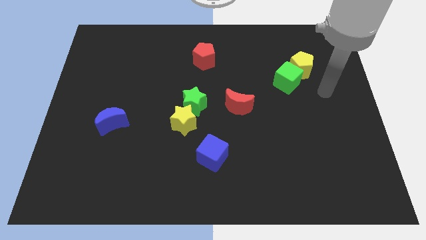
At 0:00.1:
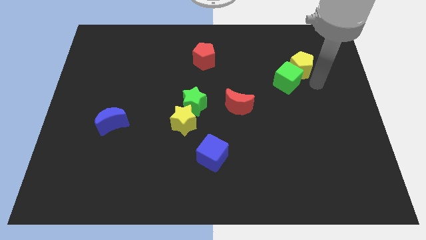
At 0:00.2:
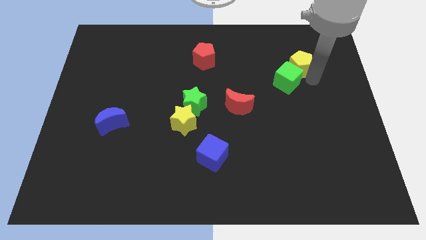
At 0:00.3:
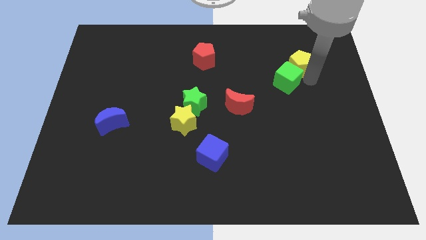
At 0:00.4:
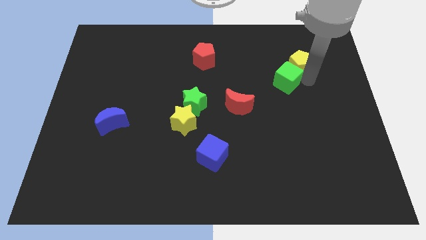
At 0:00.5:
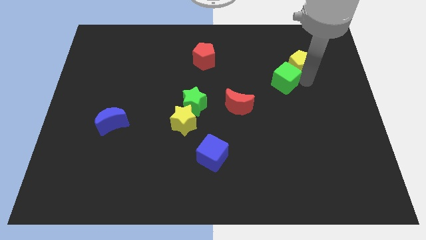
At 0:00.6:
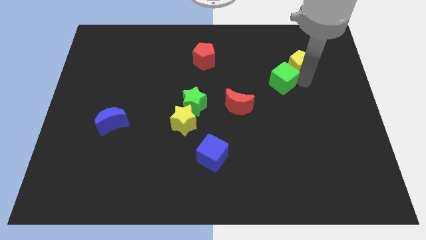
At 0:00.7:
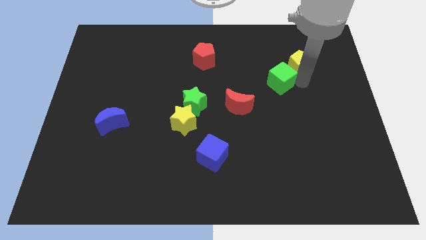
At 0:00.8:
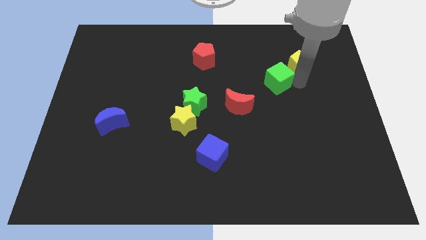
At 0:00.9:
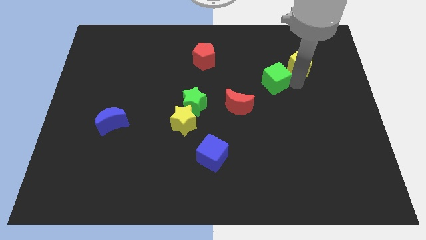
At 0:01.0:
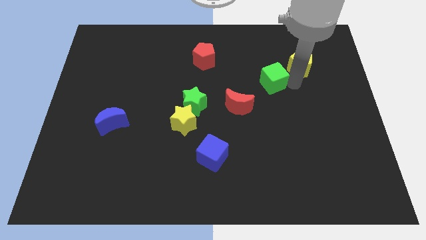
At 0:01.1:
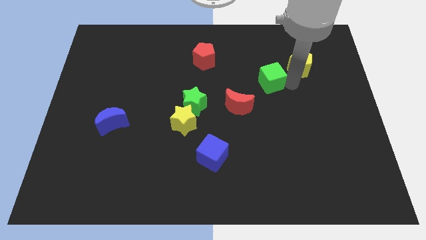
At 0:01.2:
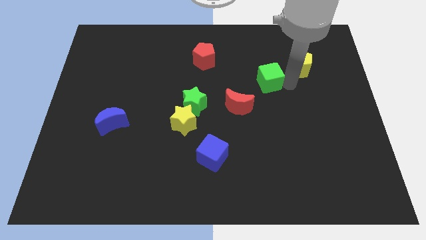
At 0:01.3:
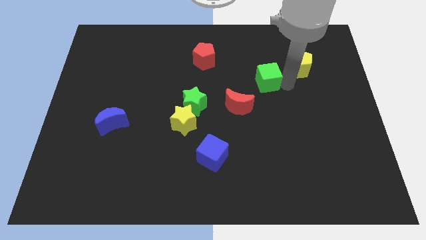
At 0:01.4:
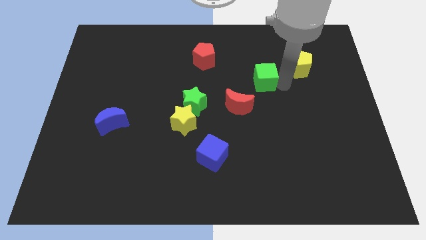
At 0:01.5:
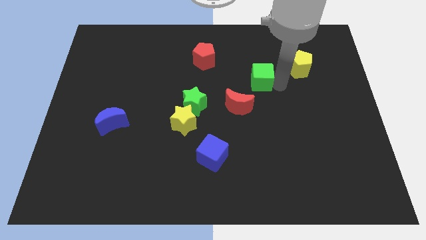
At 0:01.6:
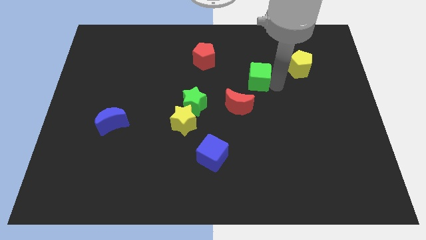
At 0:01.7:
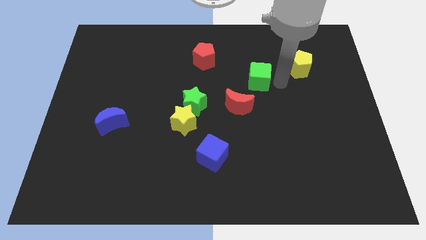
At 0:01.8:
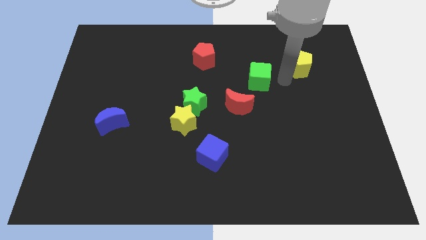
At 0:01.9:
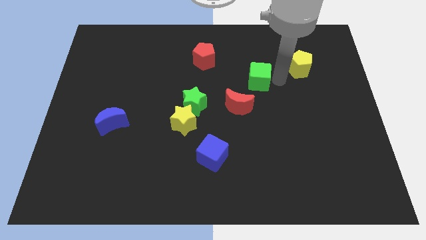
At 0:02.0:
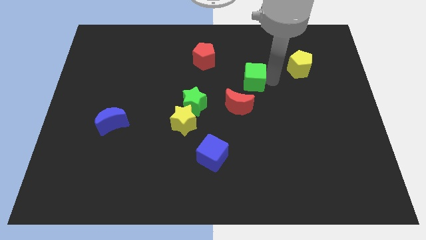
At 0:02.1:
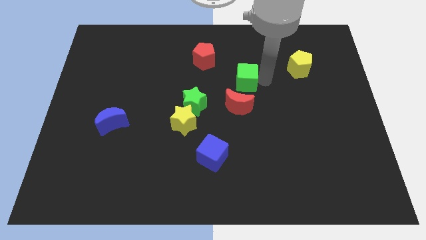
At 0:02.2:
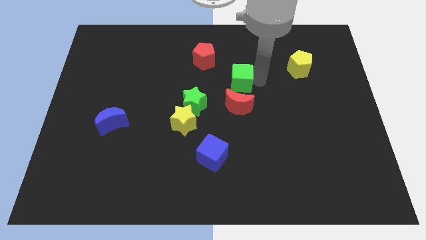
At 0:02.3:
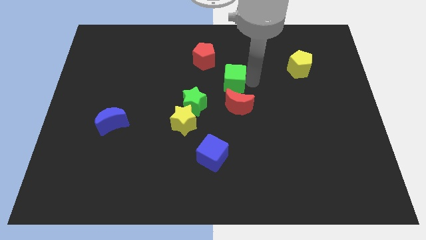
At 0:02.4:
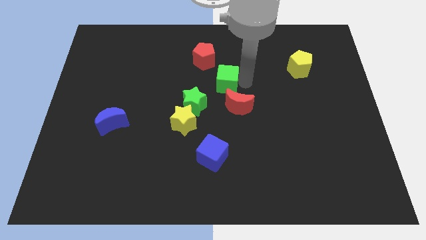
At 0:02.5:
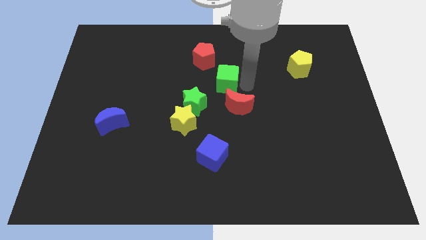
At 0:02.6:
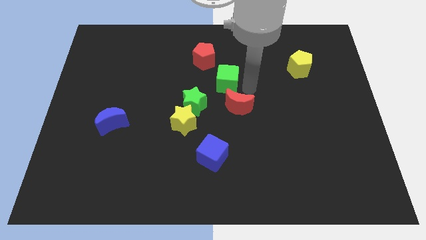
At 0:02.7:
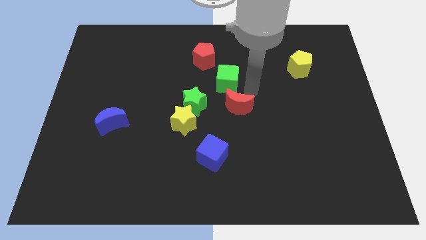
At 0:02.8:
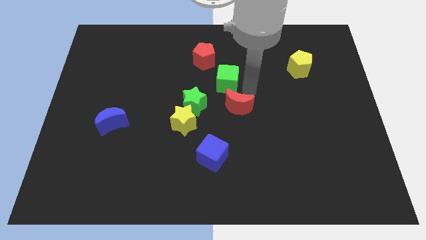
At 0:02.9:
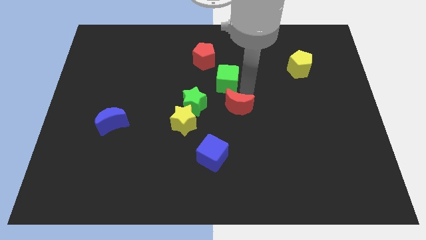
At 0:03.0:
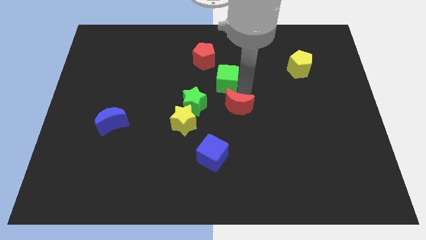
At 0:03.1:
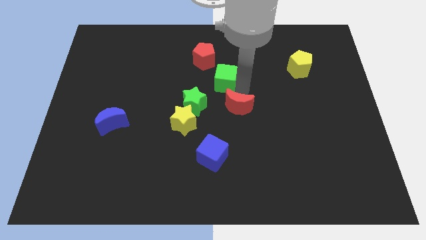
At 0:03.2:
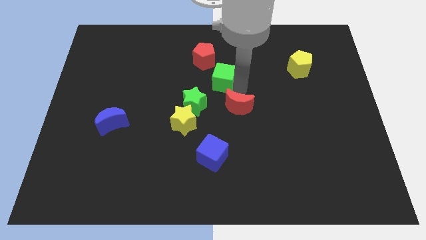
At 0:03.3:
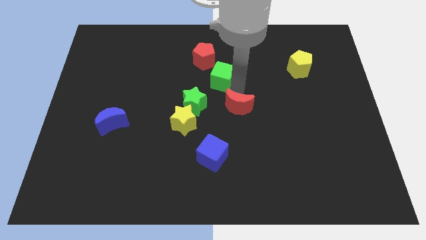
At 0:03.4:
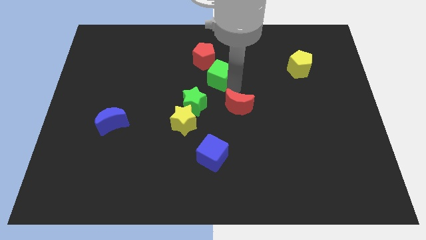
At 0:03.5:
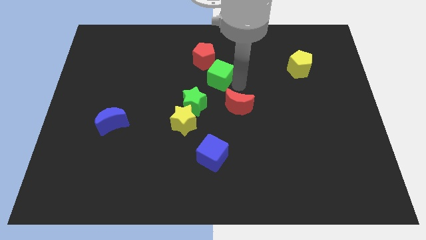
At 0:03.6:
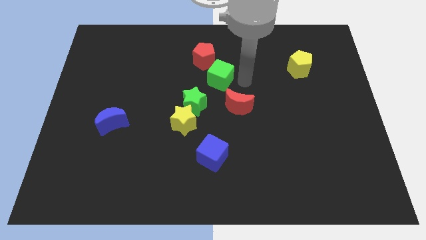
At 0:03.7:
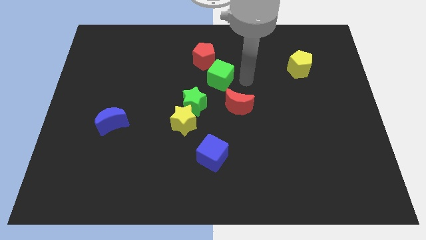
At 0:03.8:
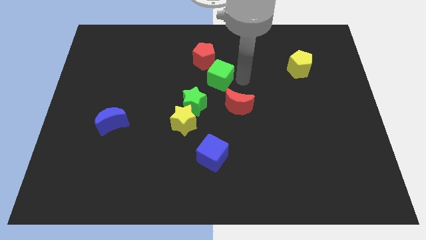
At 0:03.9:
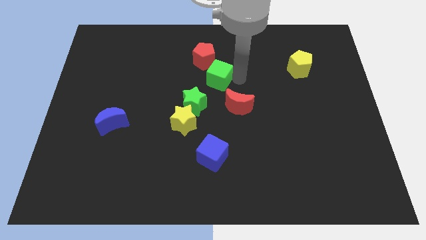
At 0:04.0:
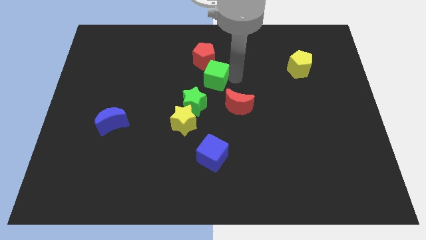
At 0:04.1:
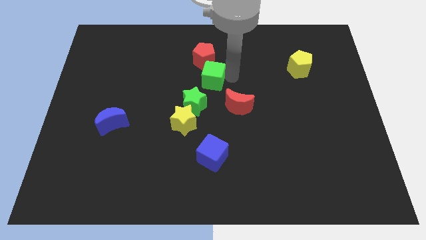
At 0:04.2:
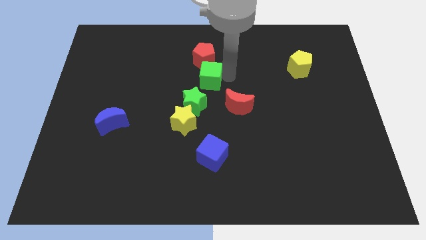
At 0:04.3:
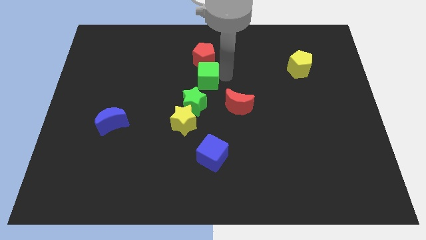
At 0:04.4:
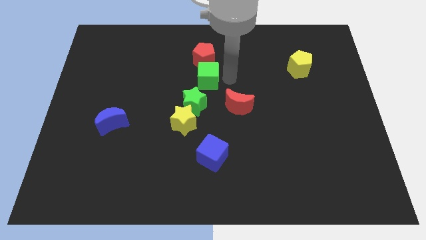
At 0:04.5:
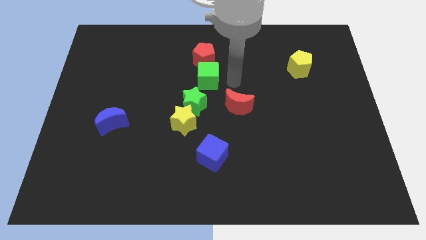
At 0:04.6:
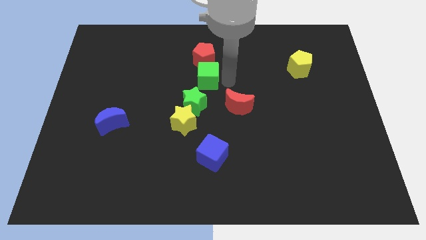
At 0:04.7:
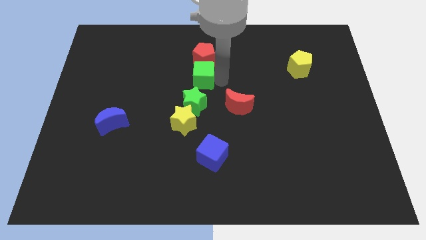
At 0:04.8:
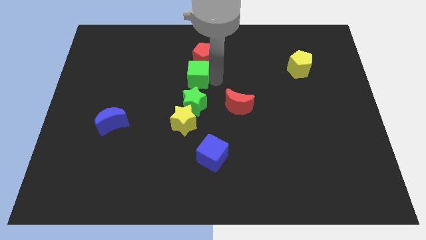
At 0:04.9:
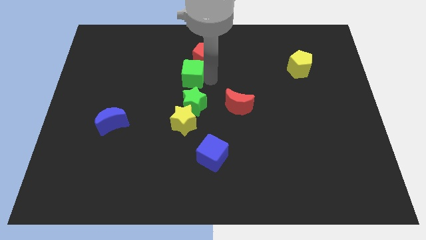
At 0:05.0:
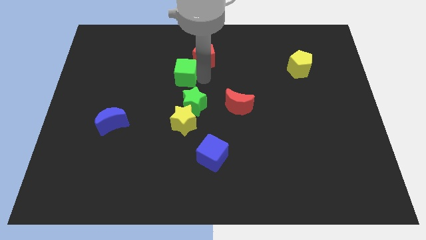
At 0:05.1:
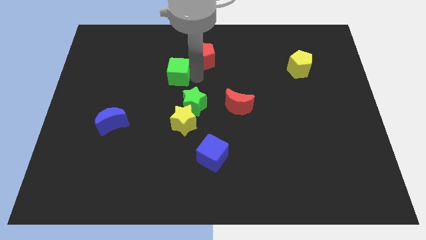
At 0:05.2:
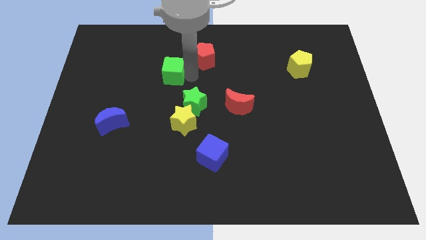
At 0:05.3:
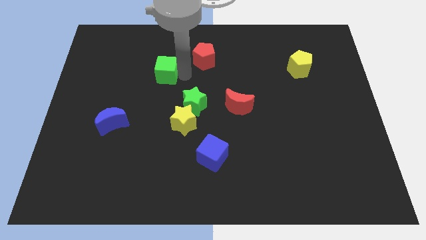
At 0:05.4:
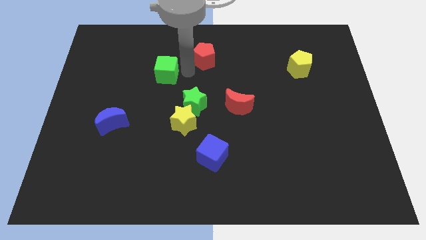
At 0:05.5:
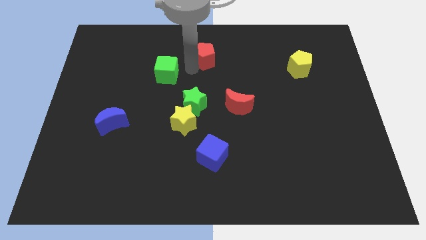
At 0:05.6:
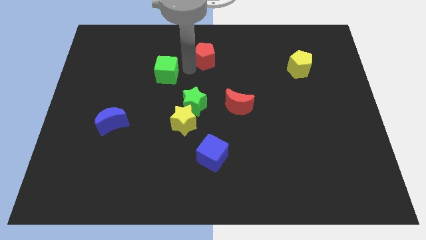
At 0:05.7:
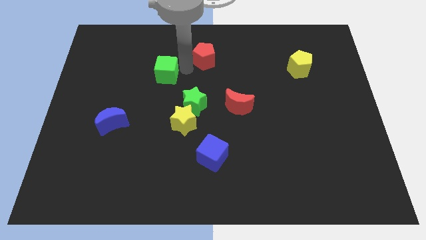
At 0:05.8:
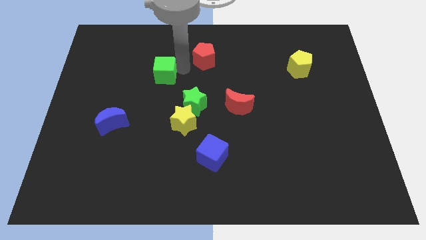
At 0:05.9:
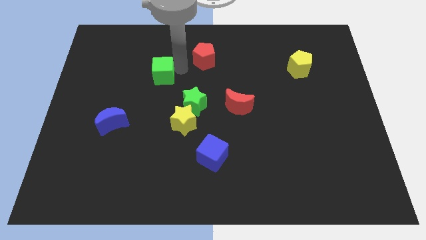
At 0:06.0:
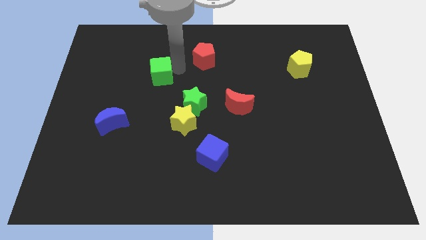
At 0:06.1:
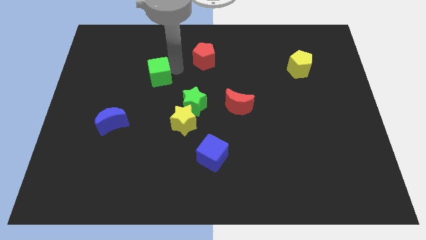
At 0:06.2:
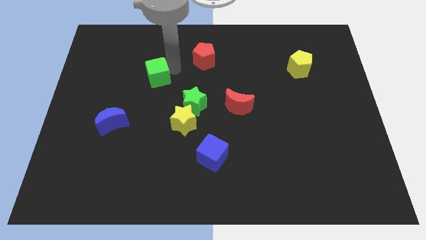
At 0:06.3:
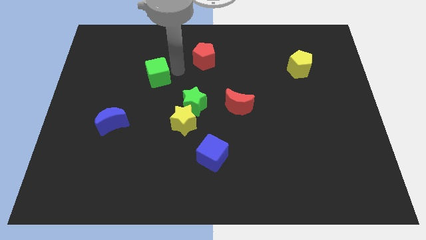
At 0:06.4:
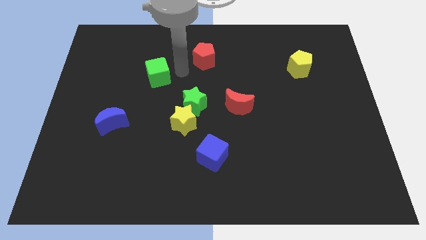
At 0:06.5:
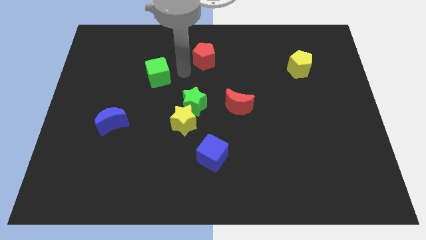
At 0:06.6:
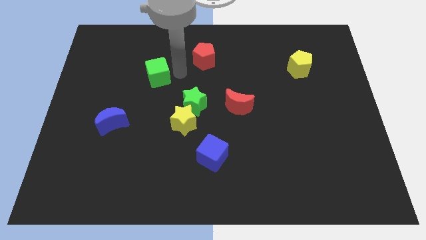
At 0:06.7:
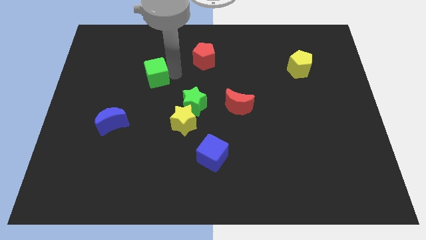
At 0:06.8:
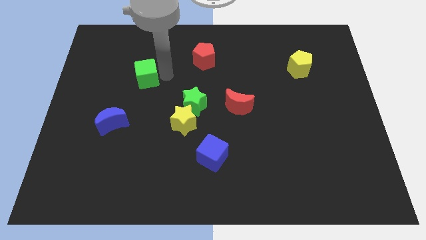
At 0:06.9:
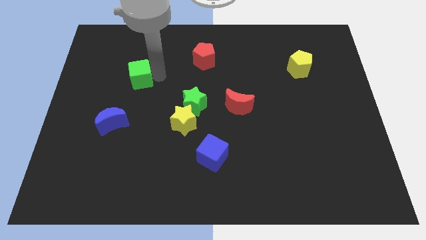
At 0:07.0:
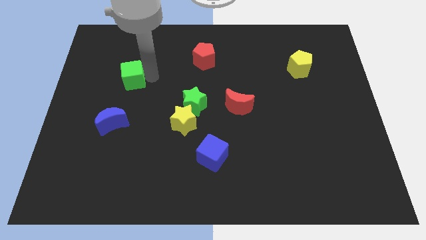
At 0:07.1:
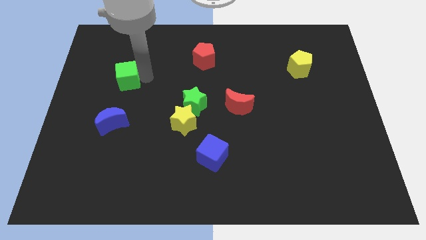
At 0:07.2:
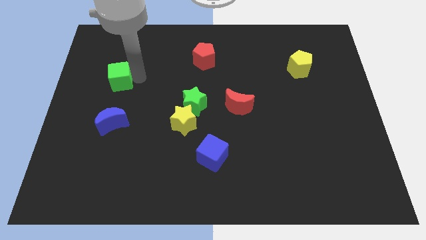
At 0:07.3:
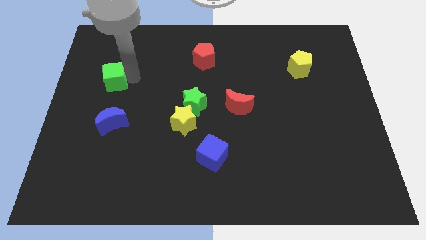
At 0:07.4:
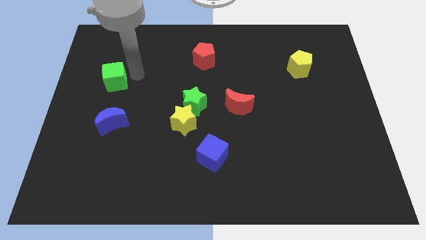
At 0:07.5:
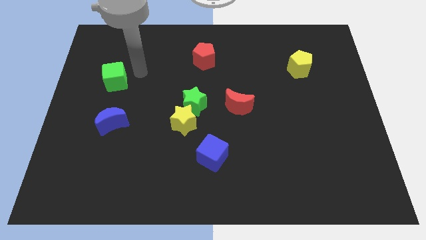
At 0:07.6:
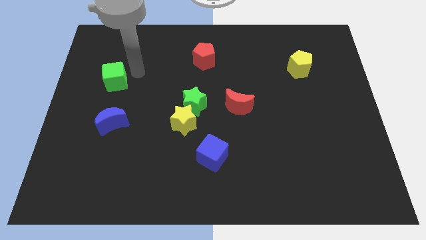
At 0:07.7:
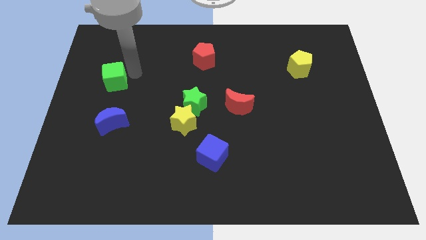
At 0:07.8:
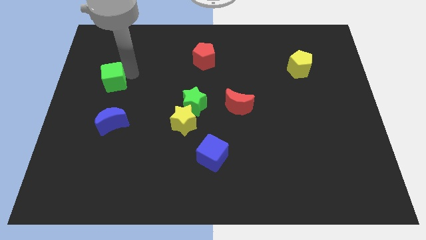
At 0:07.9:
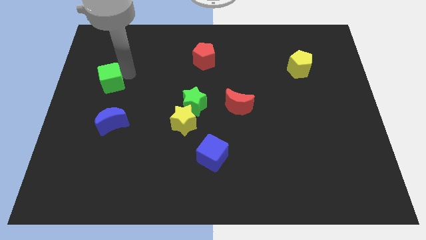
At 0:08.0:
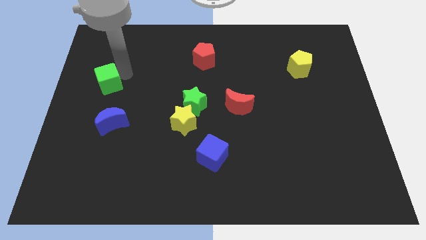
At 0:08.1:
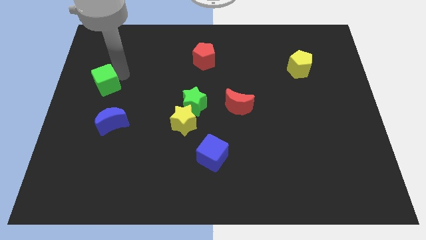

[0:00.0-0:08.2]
push the green cube to the left side
